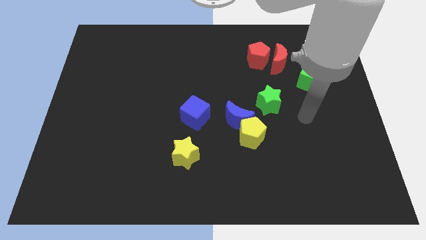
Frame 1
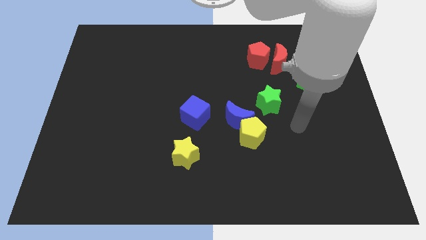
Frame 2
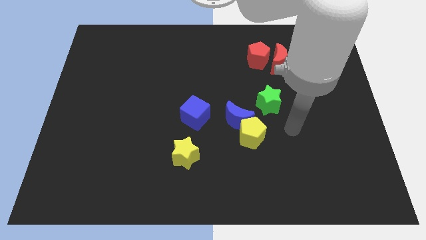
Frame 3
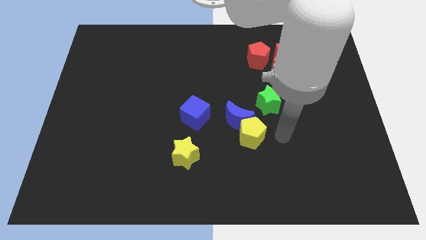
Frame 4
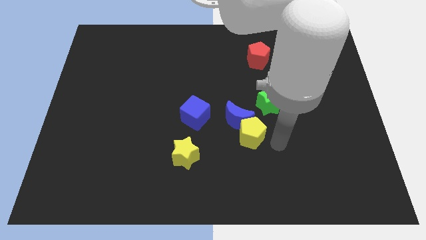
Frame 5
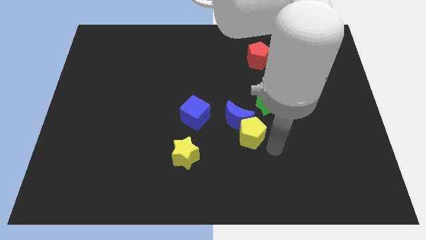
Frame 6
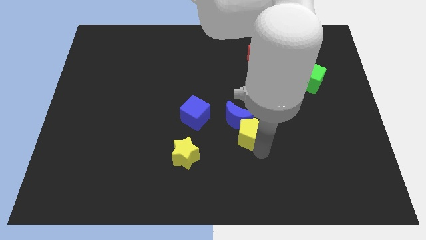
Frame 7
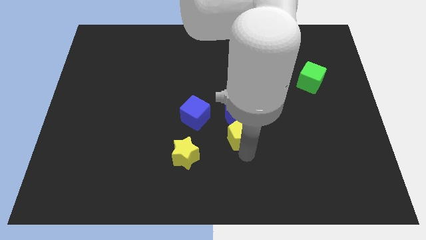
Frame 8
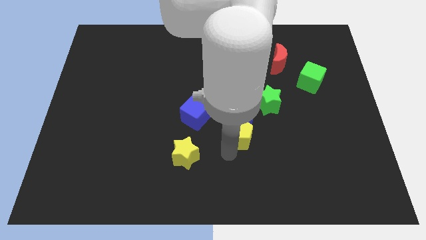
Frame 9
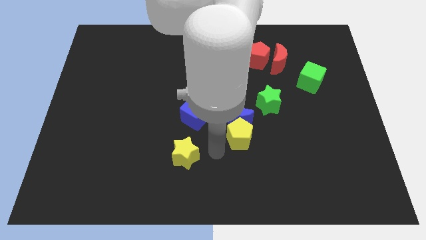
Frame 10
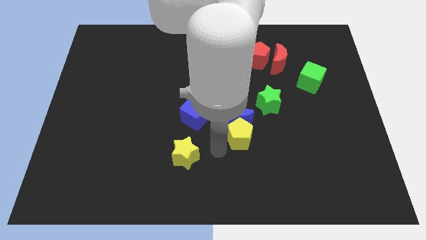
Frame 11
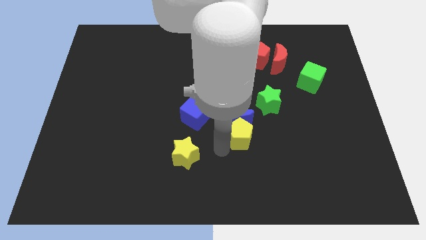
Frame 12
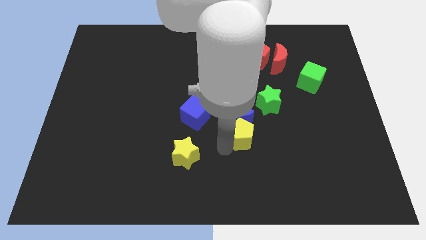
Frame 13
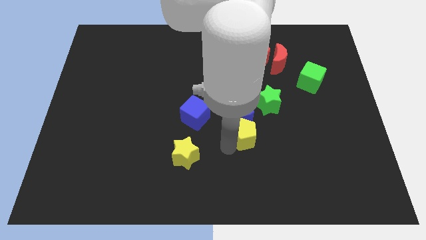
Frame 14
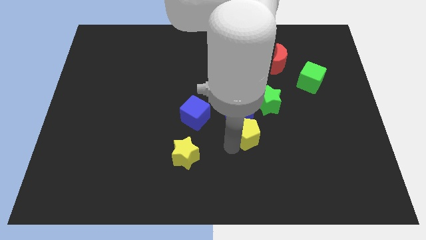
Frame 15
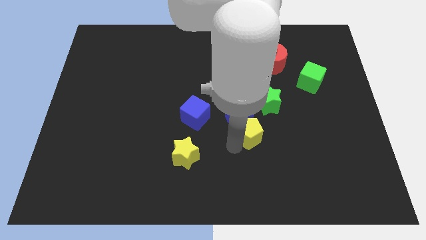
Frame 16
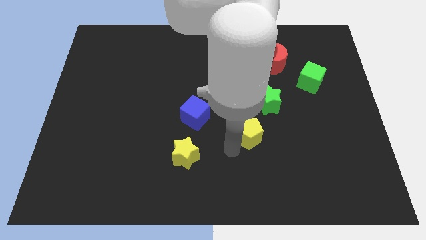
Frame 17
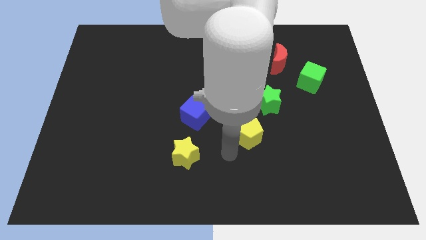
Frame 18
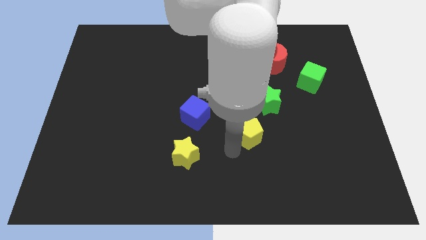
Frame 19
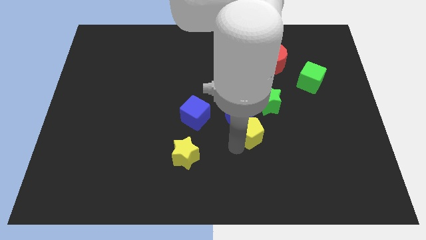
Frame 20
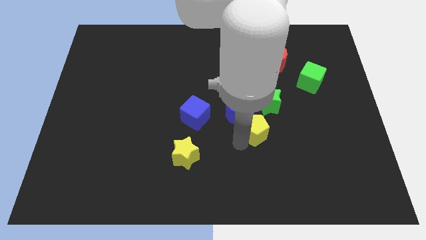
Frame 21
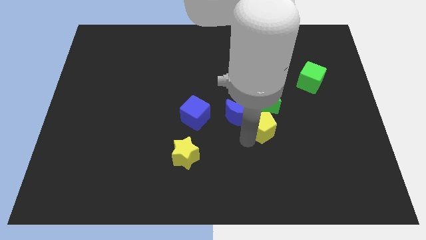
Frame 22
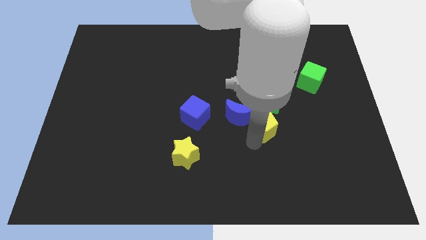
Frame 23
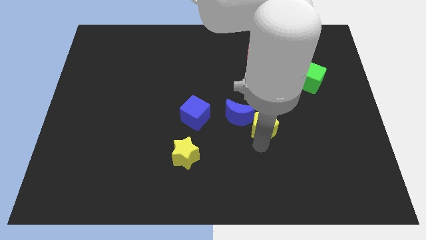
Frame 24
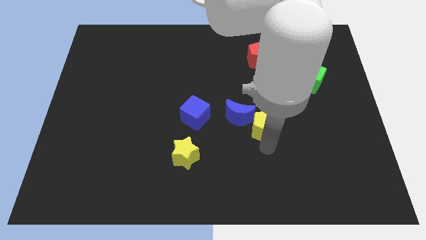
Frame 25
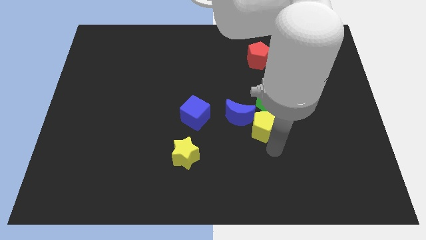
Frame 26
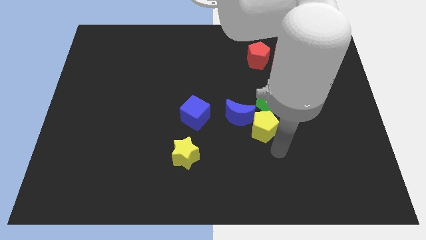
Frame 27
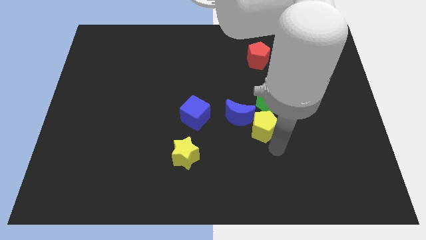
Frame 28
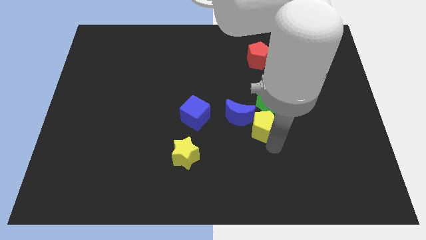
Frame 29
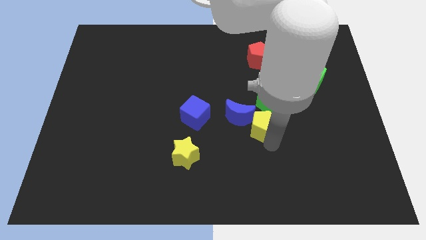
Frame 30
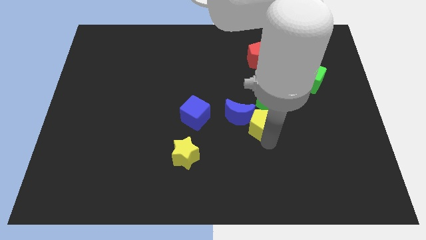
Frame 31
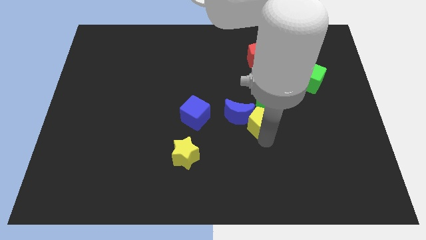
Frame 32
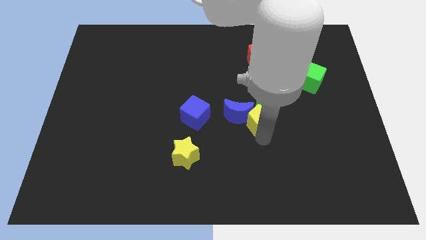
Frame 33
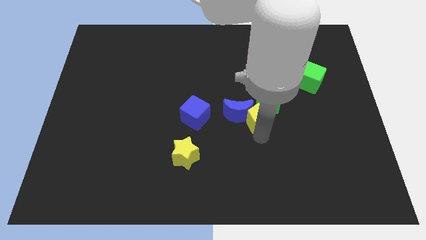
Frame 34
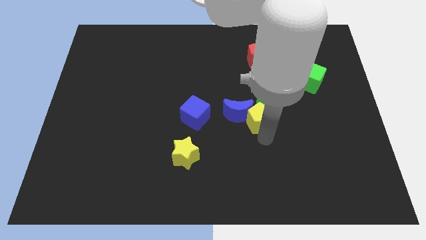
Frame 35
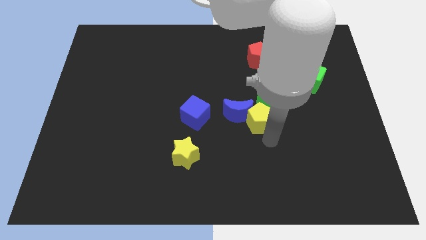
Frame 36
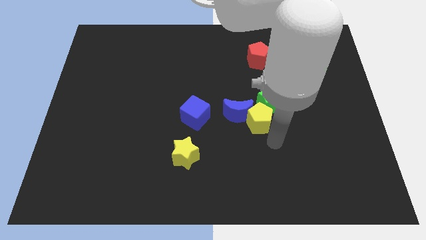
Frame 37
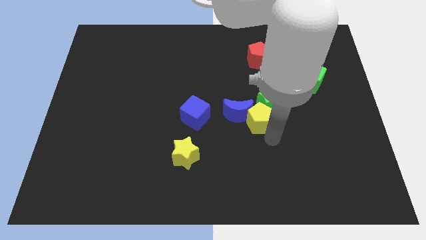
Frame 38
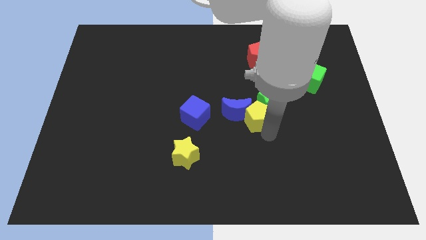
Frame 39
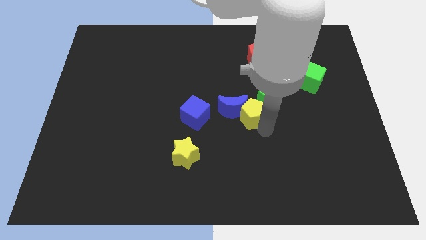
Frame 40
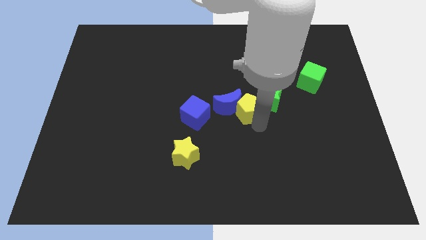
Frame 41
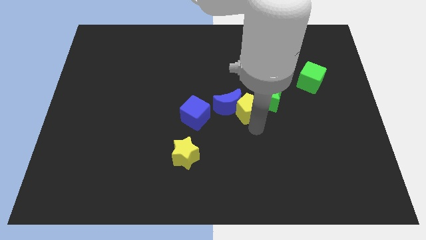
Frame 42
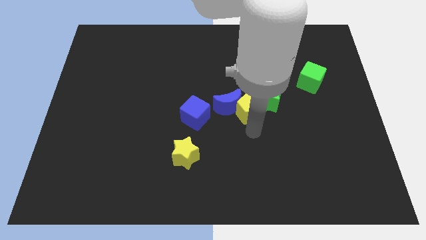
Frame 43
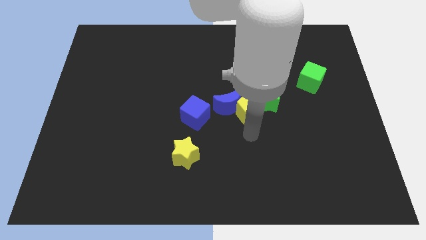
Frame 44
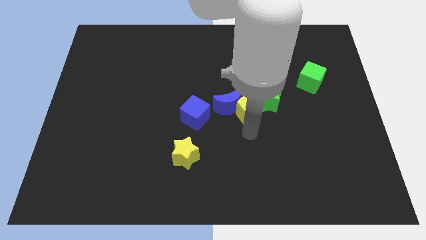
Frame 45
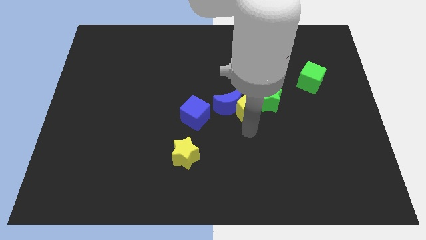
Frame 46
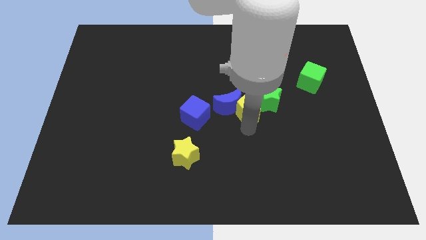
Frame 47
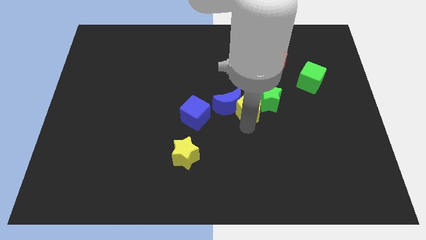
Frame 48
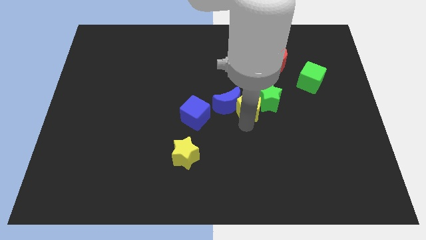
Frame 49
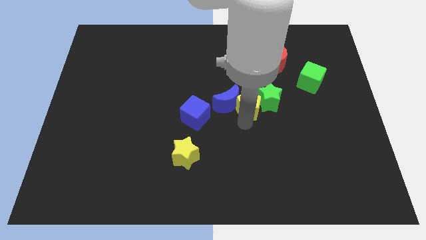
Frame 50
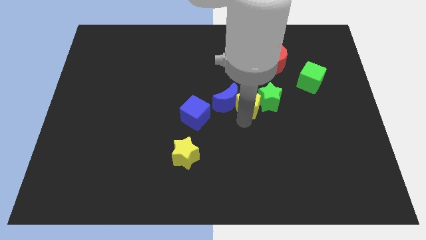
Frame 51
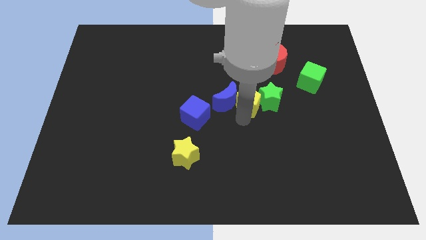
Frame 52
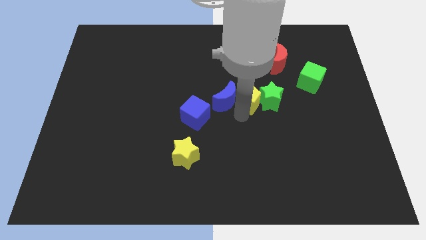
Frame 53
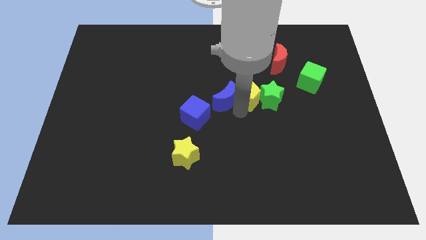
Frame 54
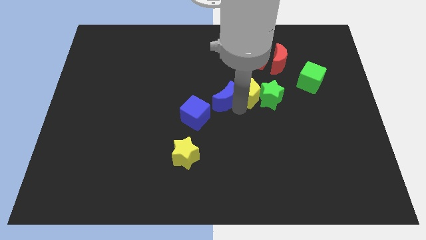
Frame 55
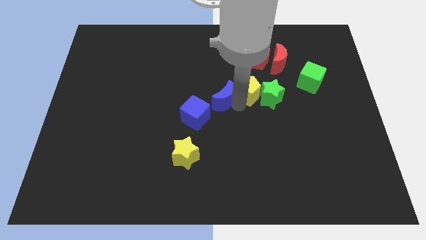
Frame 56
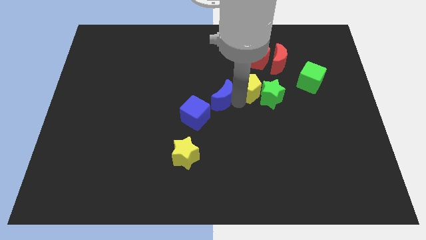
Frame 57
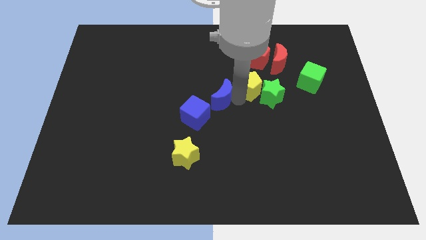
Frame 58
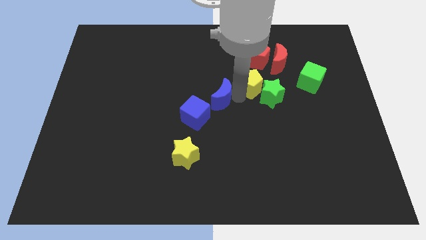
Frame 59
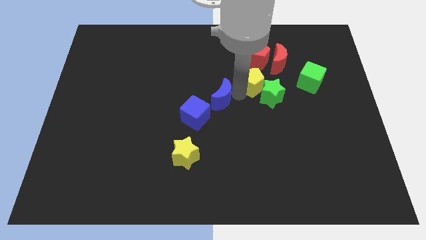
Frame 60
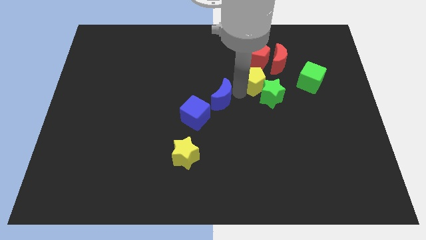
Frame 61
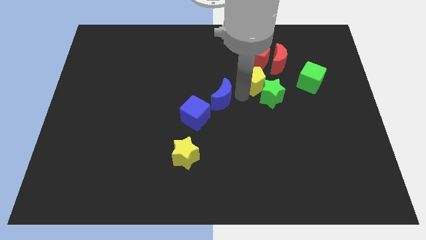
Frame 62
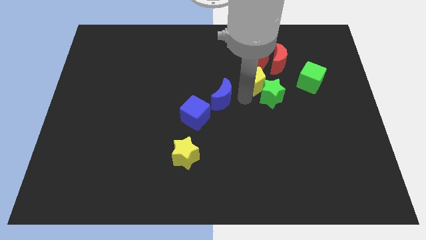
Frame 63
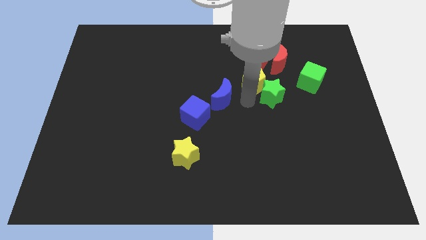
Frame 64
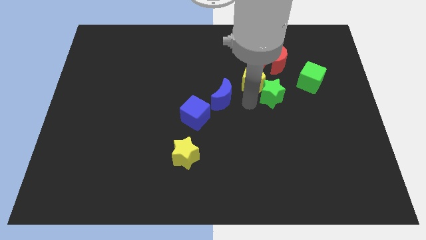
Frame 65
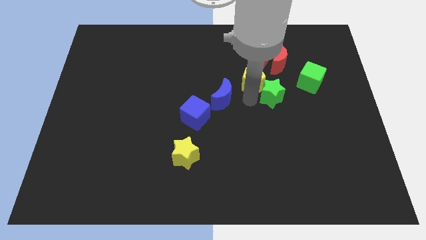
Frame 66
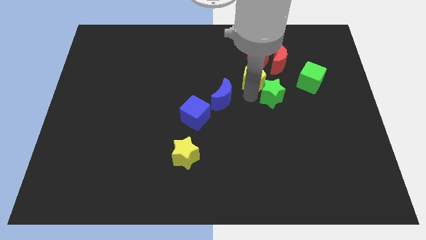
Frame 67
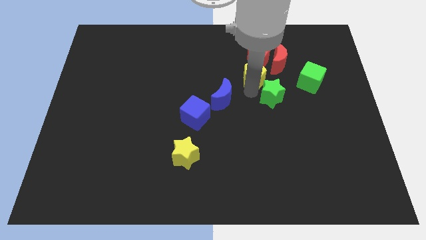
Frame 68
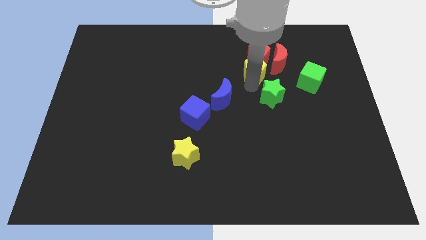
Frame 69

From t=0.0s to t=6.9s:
put the yellow pentagon to the red pentagon

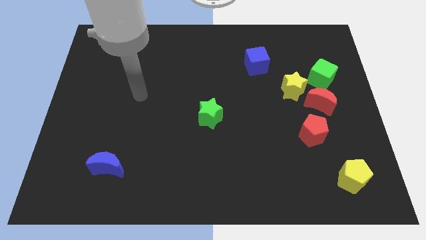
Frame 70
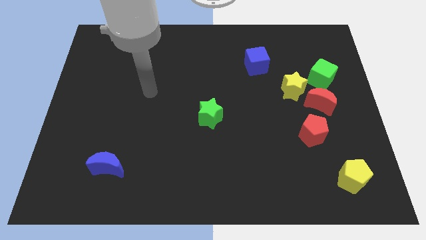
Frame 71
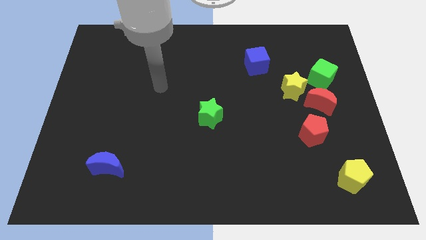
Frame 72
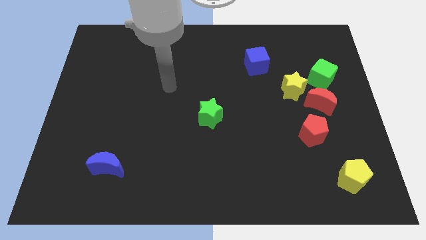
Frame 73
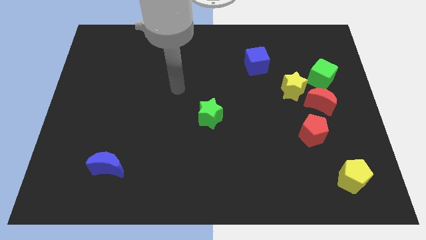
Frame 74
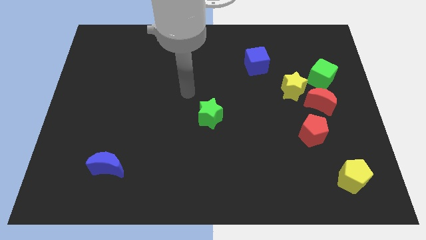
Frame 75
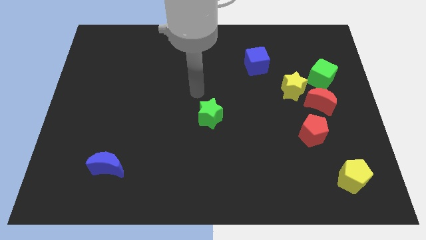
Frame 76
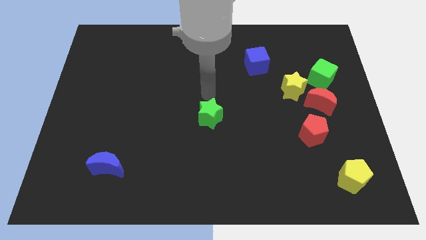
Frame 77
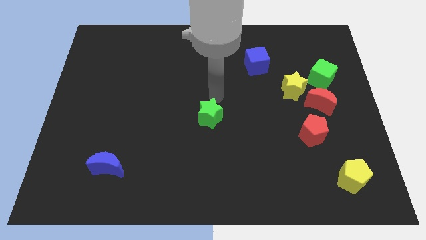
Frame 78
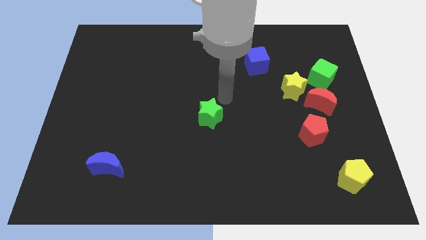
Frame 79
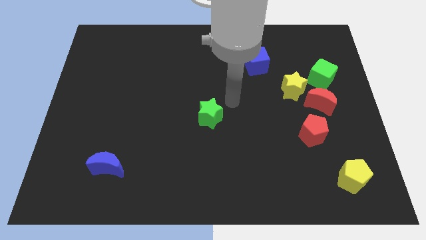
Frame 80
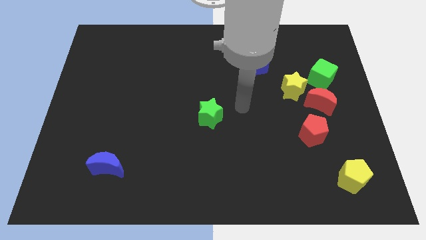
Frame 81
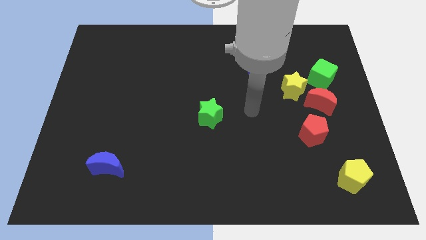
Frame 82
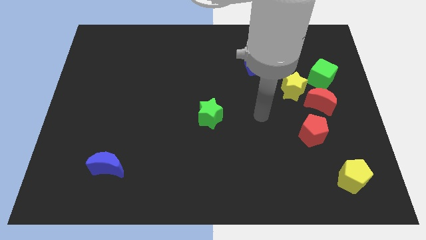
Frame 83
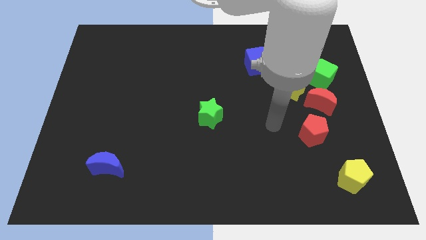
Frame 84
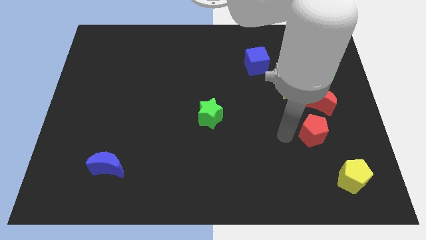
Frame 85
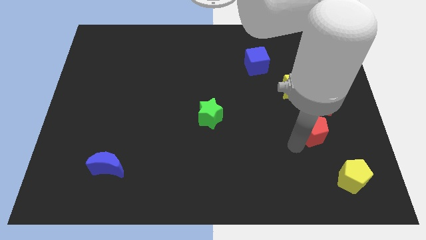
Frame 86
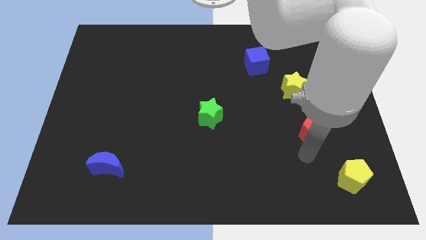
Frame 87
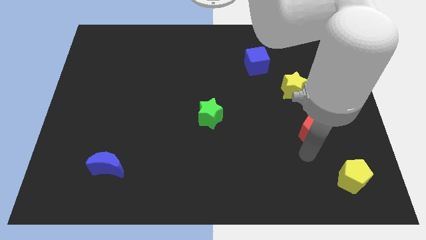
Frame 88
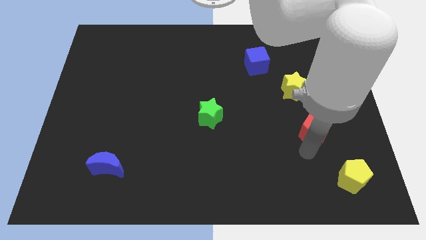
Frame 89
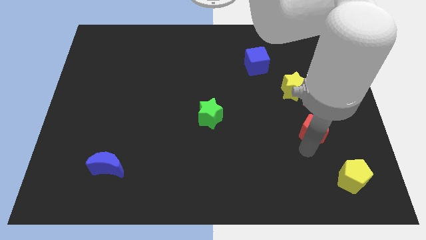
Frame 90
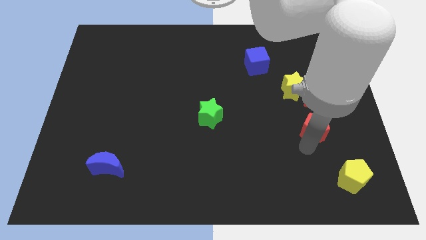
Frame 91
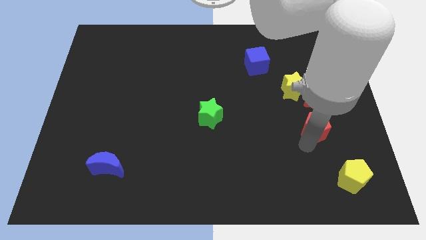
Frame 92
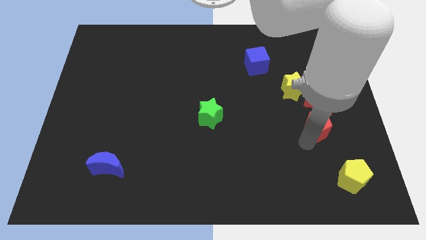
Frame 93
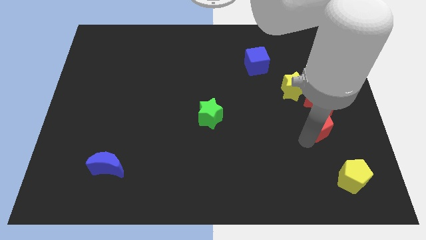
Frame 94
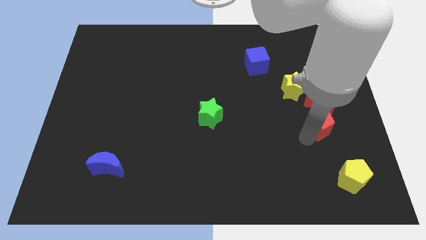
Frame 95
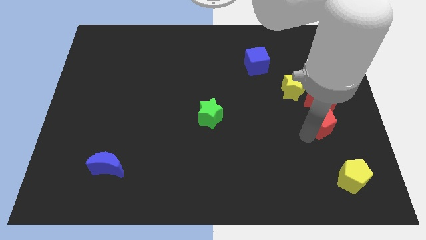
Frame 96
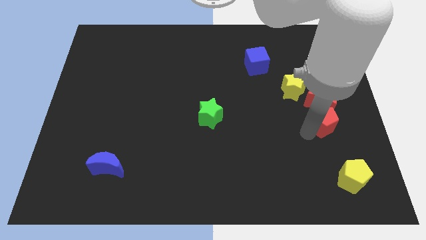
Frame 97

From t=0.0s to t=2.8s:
slide the red pentagon close to the red moon
